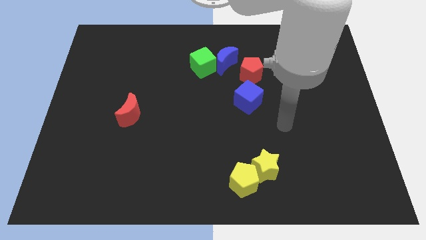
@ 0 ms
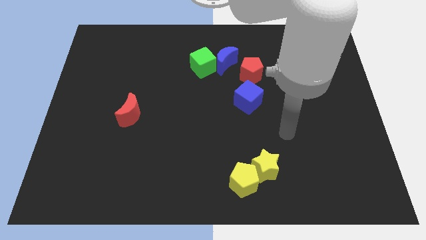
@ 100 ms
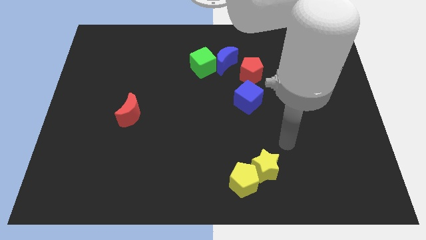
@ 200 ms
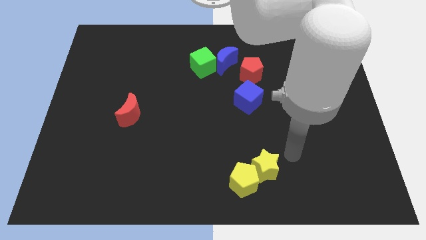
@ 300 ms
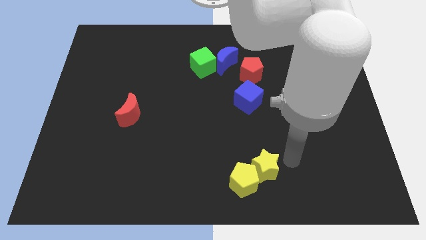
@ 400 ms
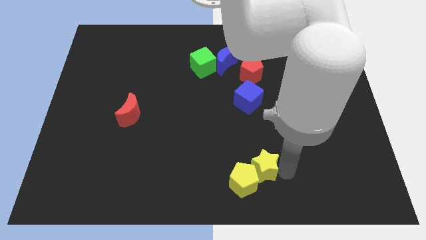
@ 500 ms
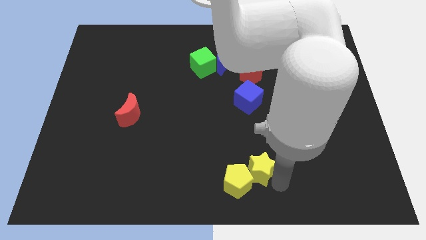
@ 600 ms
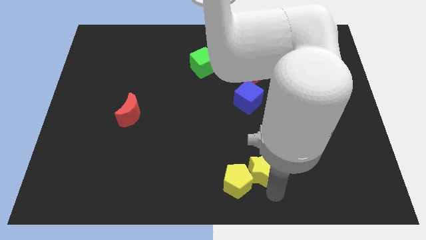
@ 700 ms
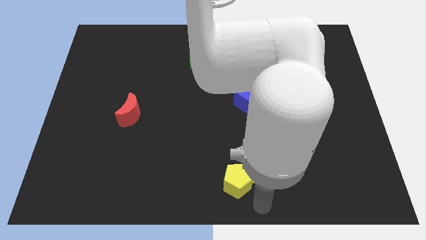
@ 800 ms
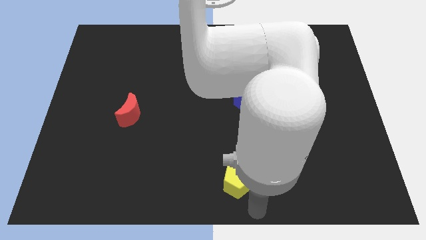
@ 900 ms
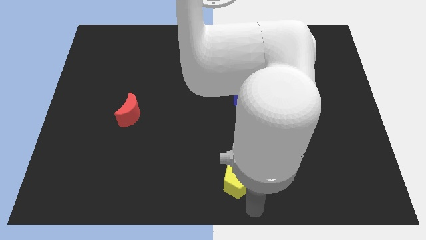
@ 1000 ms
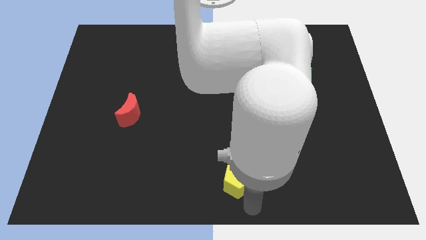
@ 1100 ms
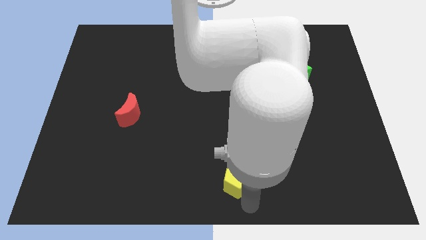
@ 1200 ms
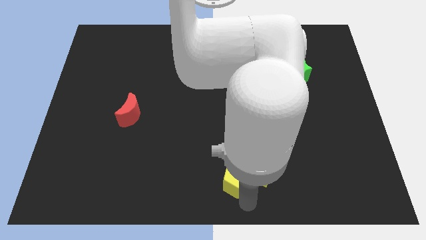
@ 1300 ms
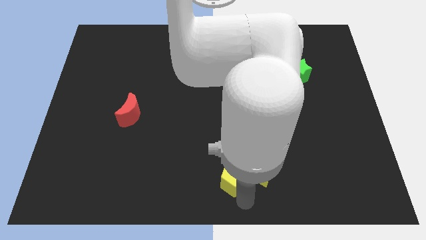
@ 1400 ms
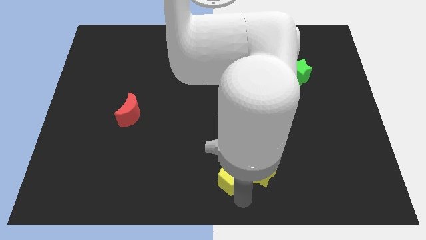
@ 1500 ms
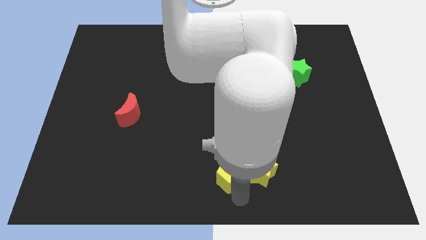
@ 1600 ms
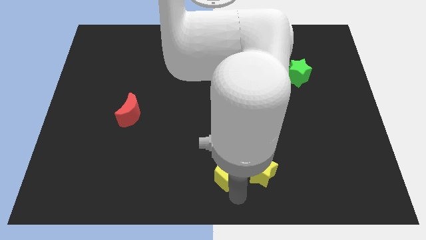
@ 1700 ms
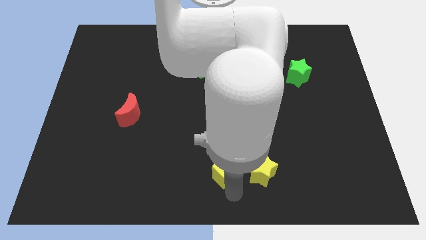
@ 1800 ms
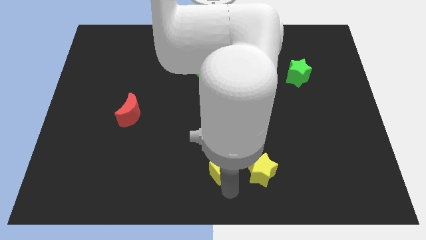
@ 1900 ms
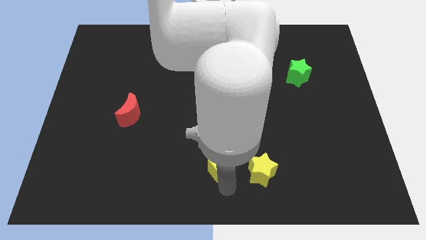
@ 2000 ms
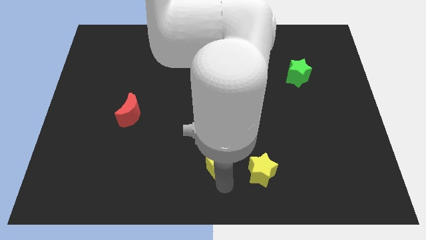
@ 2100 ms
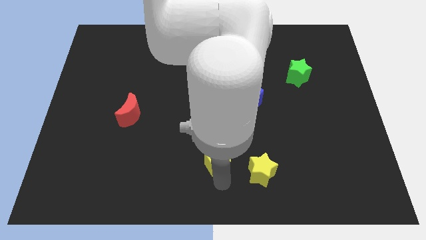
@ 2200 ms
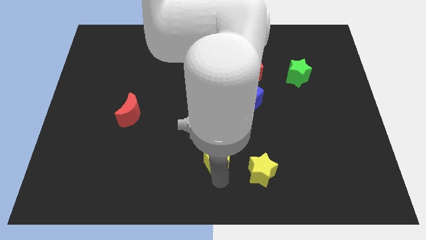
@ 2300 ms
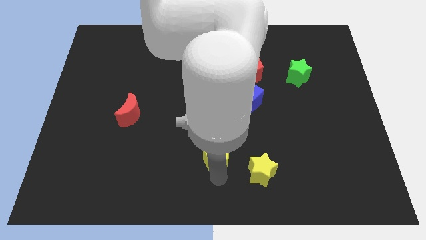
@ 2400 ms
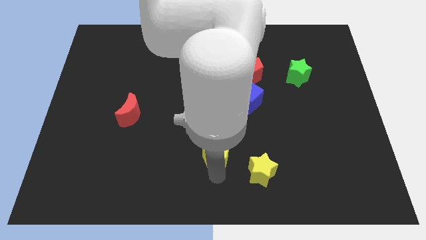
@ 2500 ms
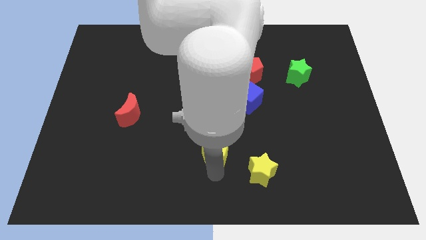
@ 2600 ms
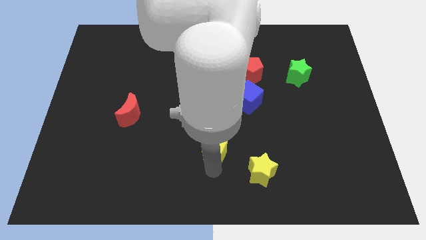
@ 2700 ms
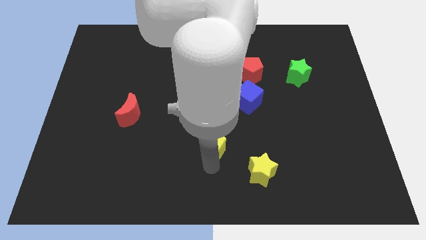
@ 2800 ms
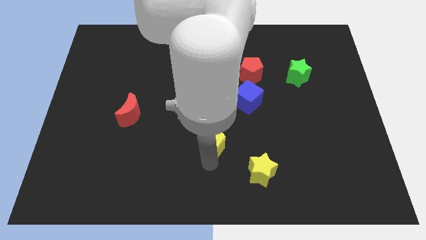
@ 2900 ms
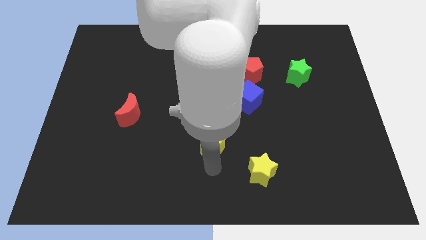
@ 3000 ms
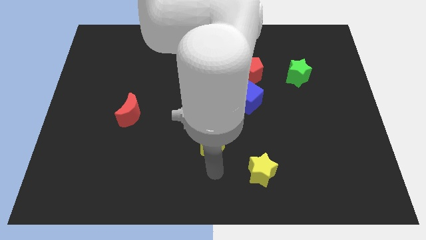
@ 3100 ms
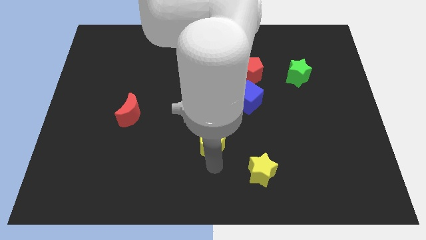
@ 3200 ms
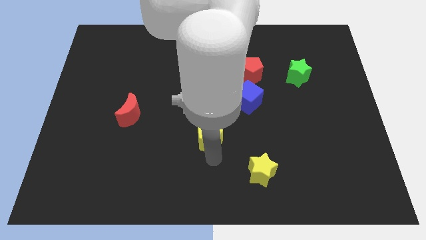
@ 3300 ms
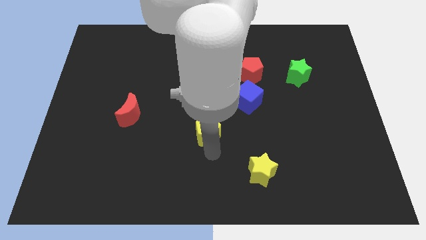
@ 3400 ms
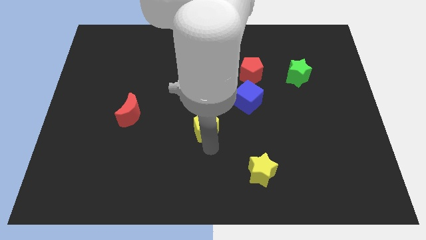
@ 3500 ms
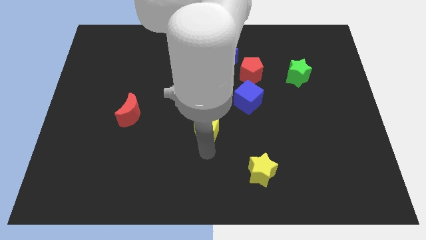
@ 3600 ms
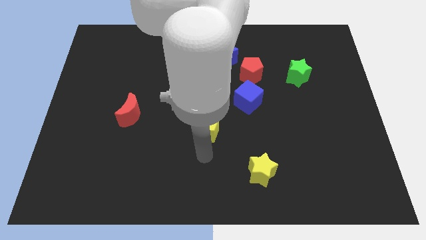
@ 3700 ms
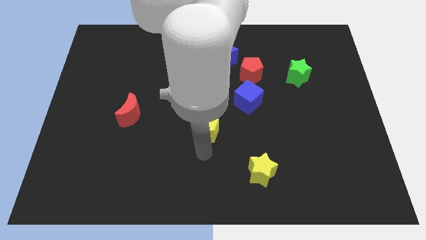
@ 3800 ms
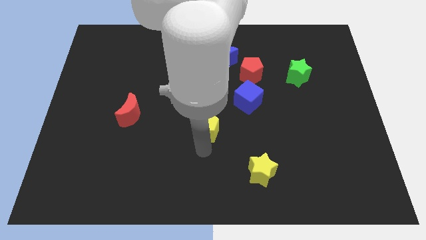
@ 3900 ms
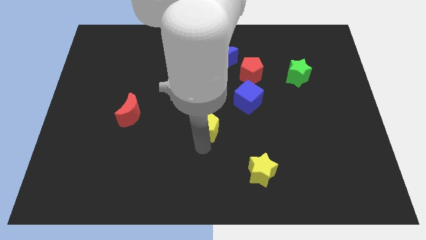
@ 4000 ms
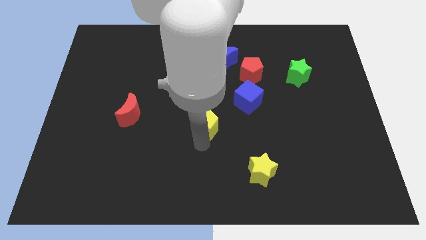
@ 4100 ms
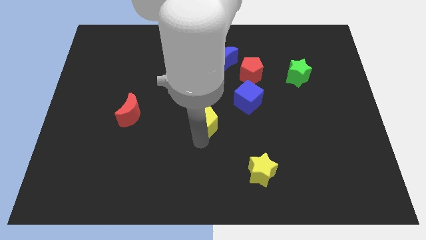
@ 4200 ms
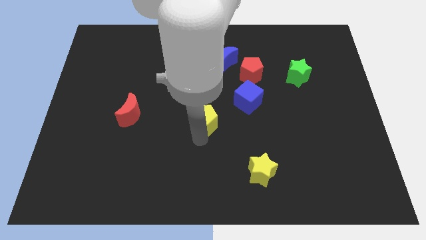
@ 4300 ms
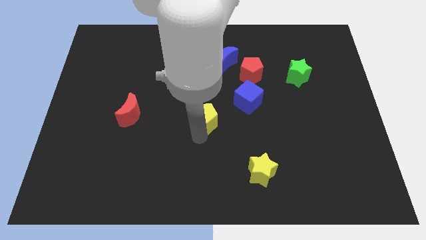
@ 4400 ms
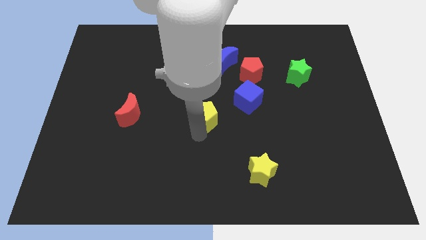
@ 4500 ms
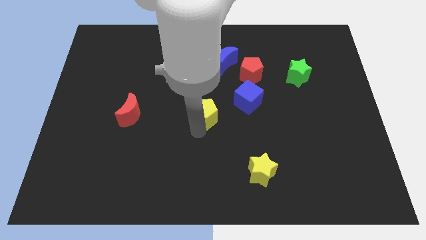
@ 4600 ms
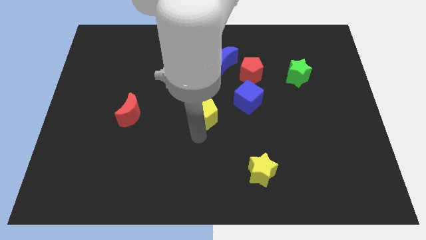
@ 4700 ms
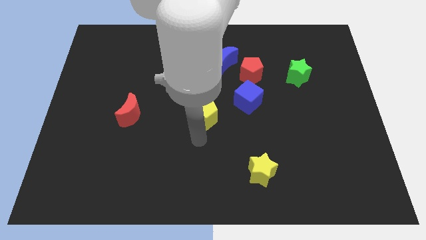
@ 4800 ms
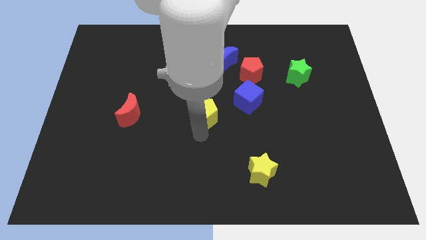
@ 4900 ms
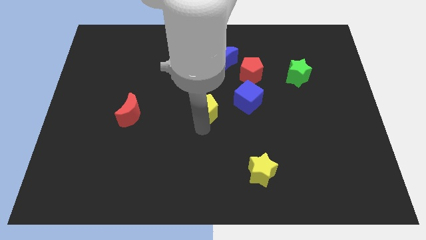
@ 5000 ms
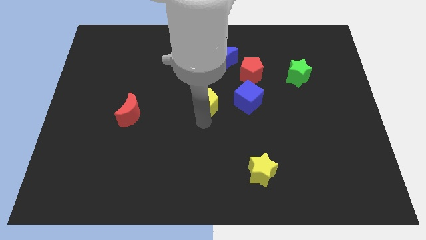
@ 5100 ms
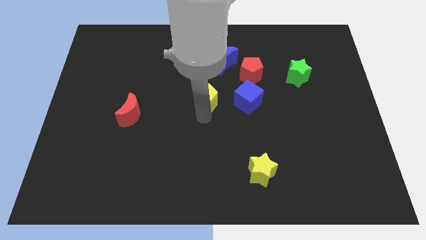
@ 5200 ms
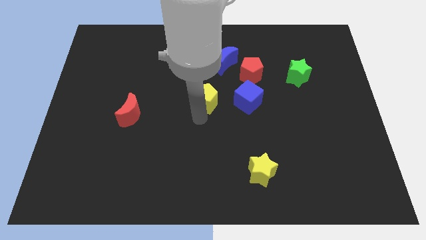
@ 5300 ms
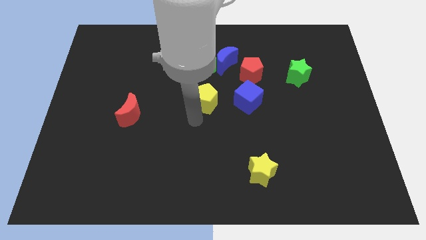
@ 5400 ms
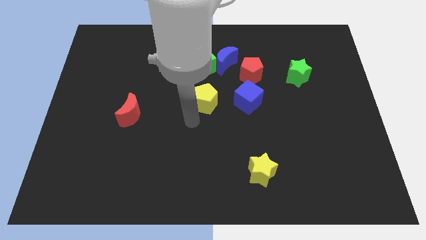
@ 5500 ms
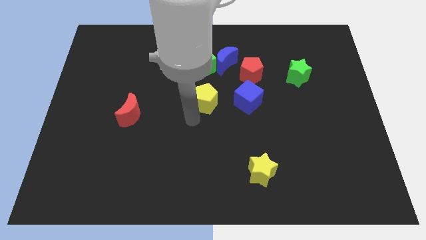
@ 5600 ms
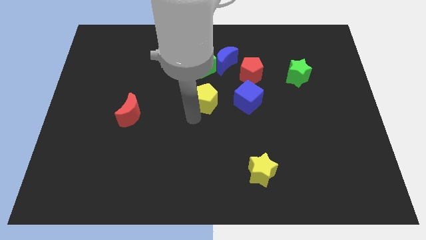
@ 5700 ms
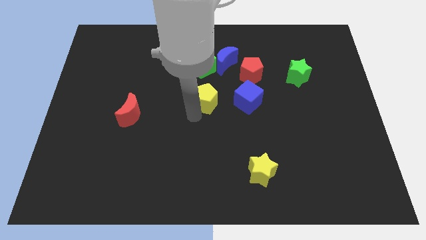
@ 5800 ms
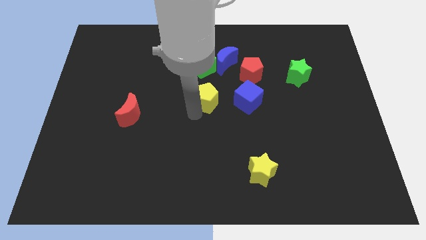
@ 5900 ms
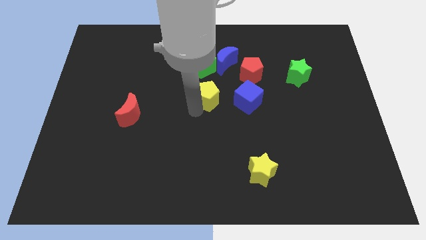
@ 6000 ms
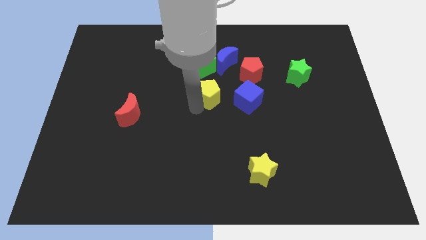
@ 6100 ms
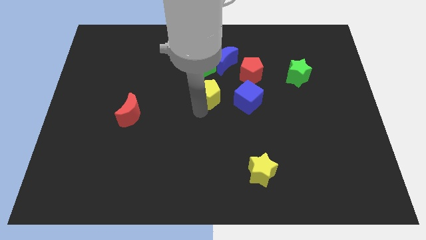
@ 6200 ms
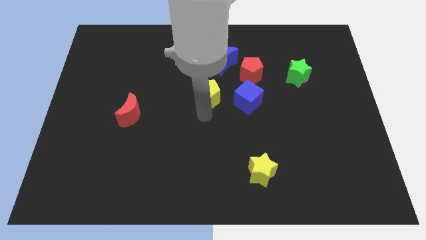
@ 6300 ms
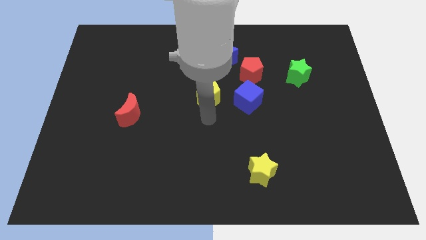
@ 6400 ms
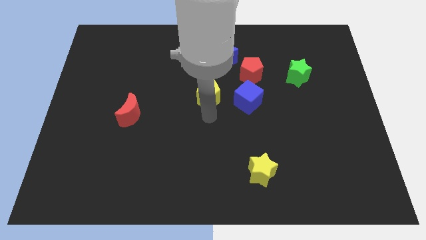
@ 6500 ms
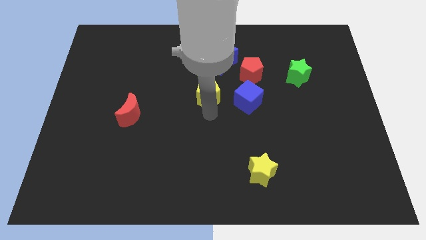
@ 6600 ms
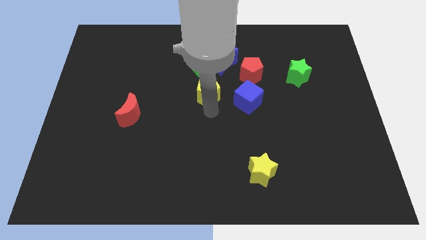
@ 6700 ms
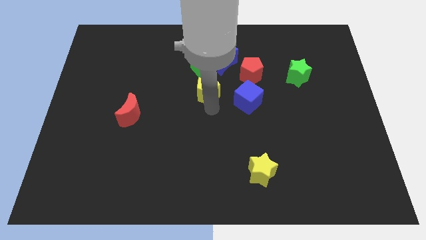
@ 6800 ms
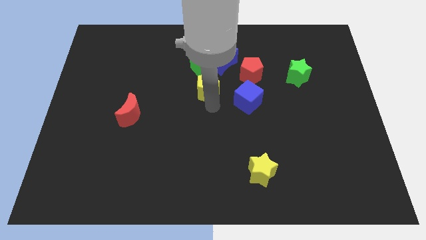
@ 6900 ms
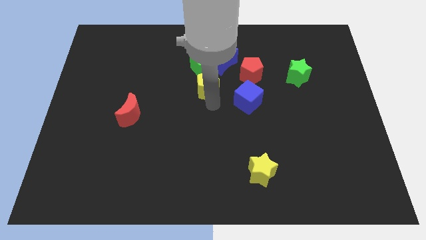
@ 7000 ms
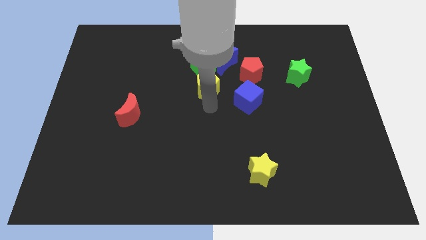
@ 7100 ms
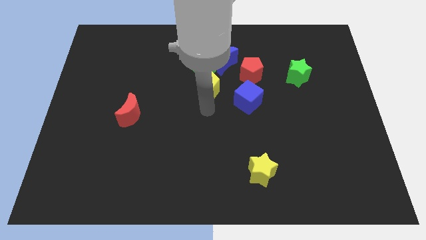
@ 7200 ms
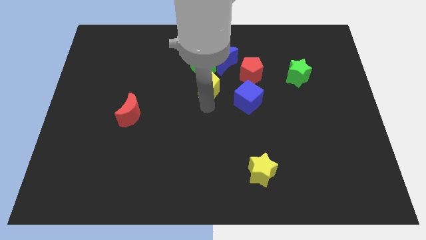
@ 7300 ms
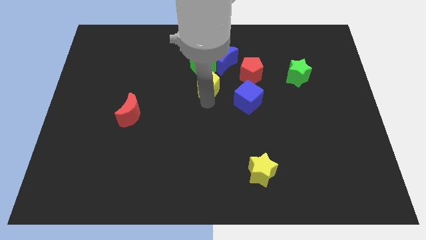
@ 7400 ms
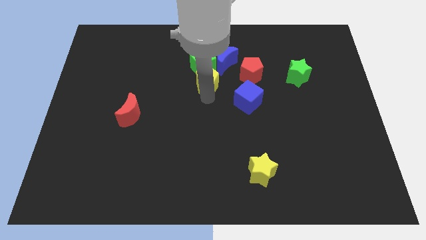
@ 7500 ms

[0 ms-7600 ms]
move the yellow pentagon close to the green cube
